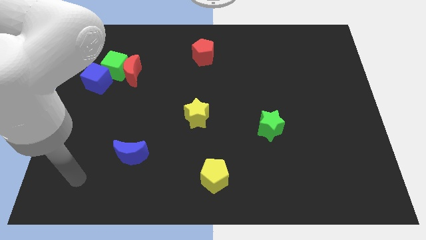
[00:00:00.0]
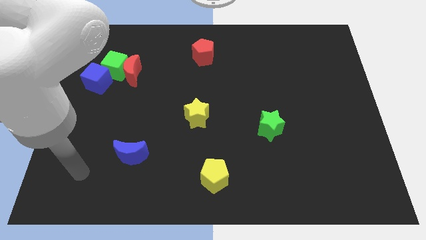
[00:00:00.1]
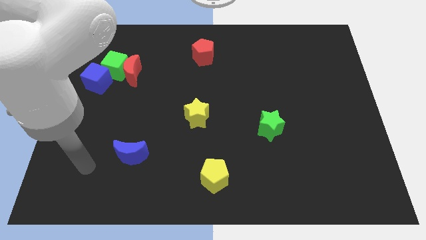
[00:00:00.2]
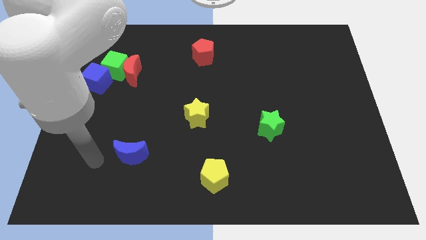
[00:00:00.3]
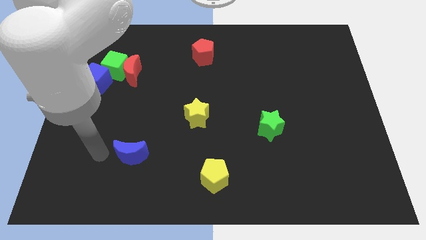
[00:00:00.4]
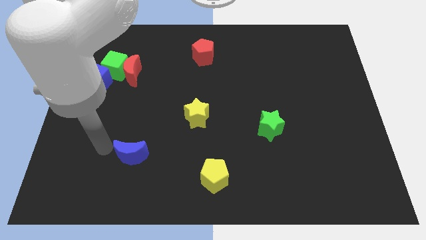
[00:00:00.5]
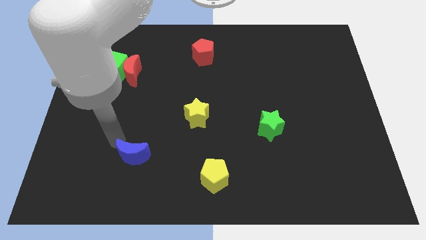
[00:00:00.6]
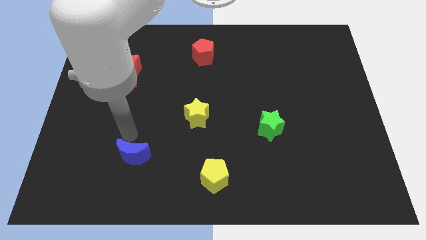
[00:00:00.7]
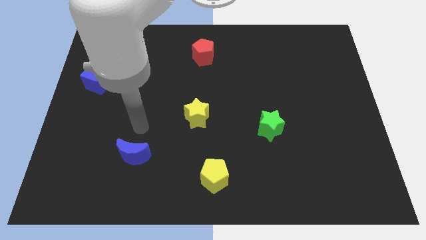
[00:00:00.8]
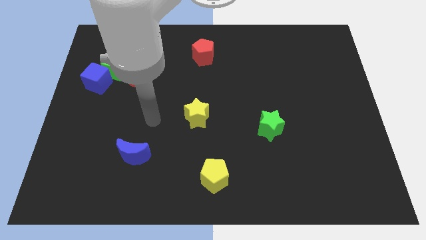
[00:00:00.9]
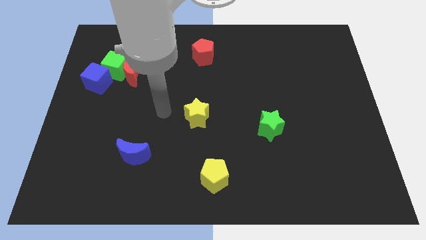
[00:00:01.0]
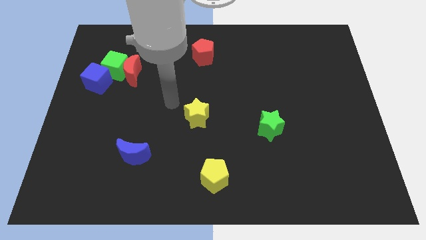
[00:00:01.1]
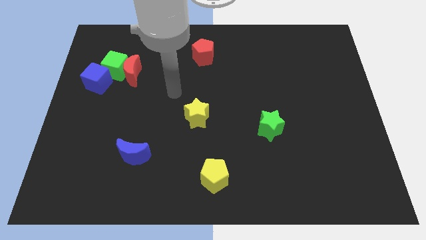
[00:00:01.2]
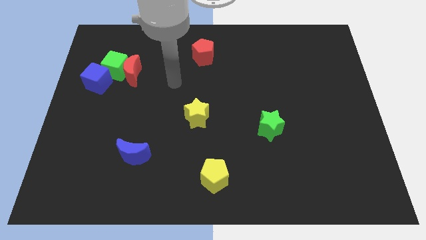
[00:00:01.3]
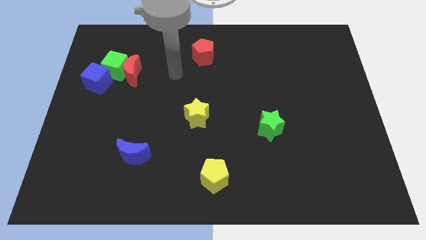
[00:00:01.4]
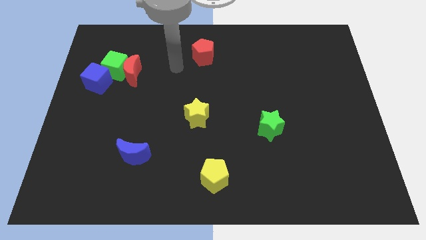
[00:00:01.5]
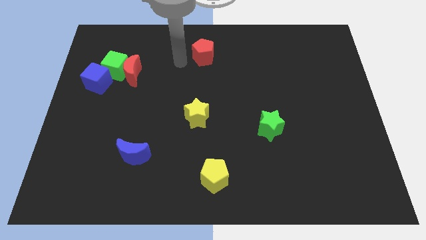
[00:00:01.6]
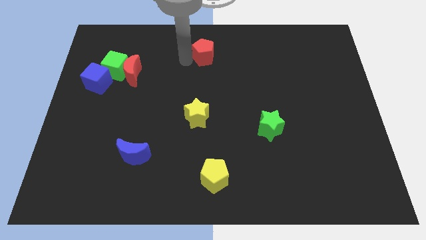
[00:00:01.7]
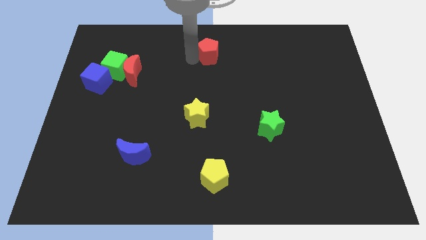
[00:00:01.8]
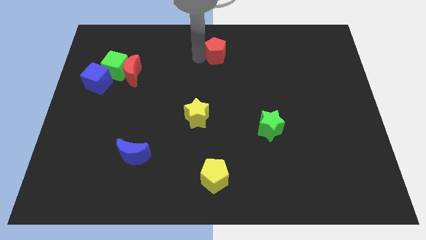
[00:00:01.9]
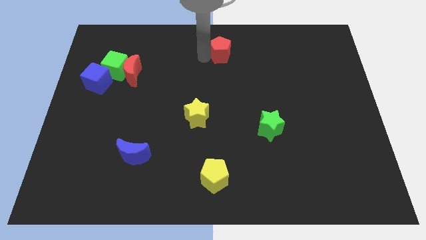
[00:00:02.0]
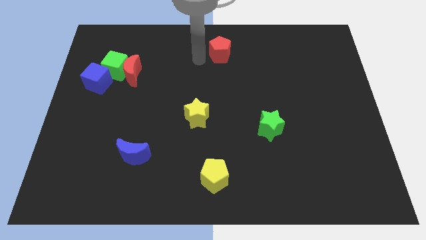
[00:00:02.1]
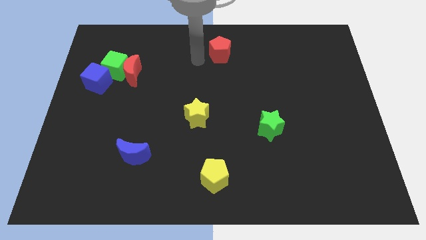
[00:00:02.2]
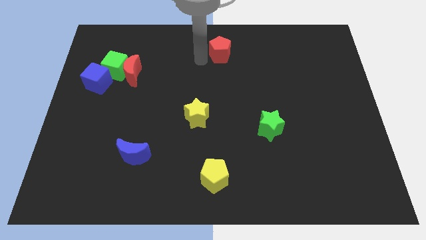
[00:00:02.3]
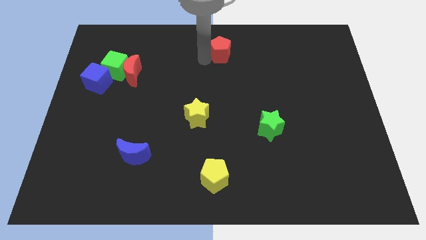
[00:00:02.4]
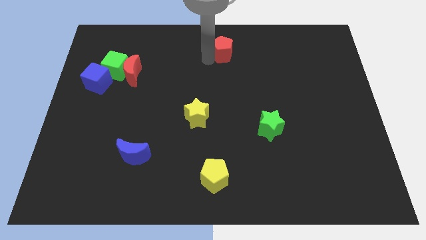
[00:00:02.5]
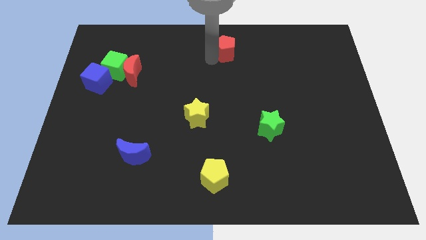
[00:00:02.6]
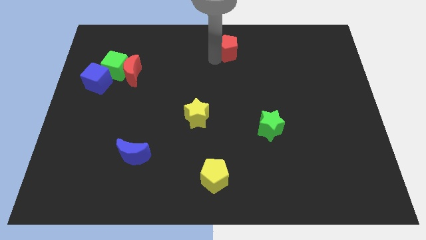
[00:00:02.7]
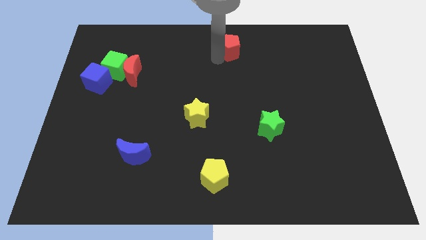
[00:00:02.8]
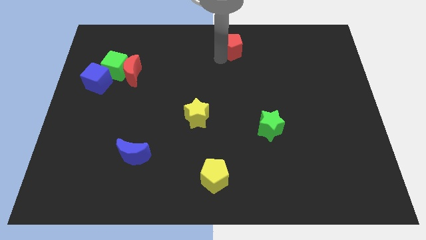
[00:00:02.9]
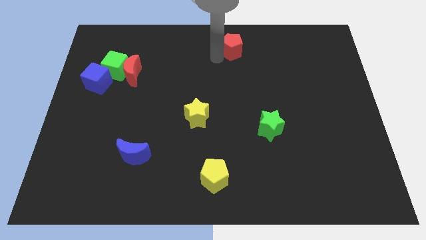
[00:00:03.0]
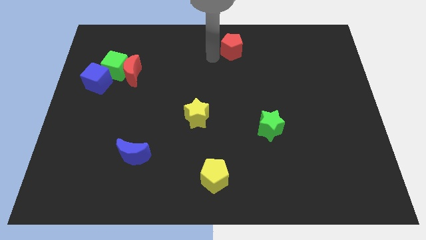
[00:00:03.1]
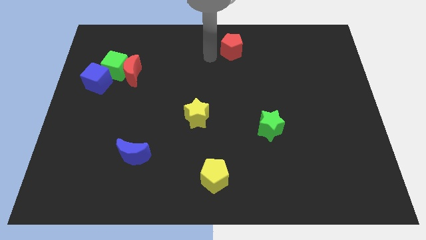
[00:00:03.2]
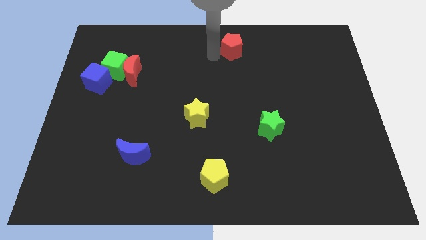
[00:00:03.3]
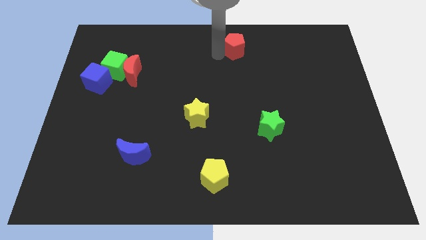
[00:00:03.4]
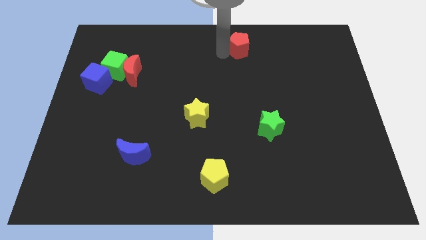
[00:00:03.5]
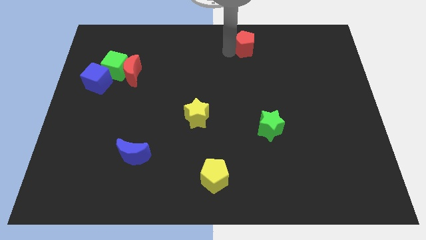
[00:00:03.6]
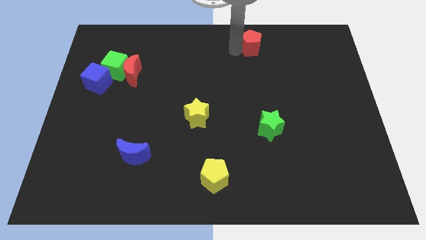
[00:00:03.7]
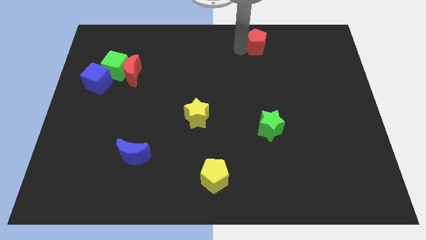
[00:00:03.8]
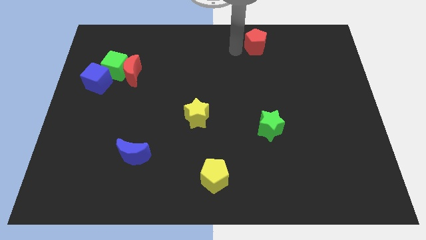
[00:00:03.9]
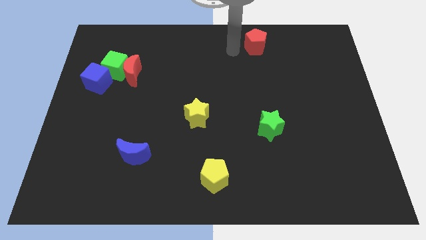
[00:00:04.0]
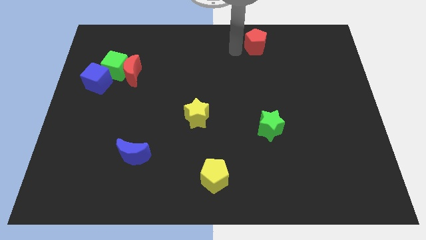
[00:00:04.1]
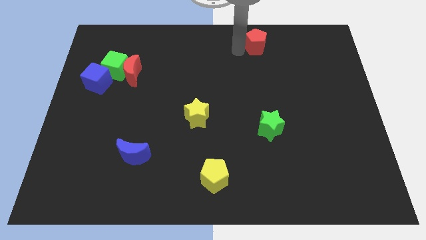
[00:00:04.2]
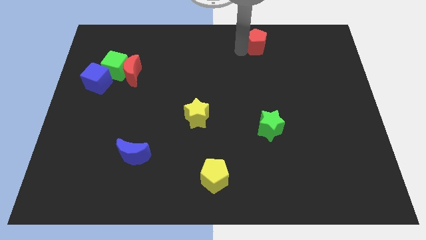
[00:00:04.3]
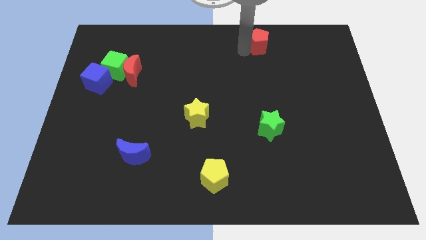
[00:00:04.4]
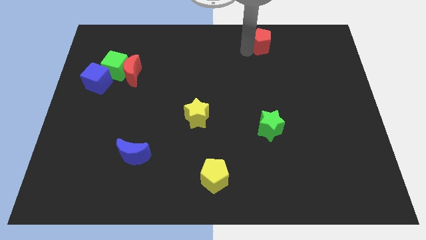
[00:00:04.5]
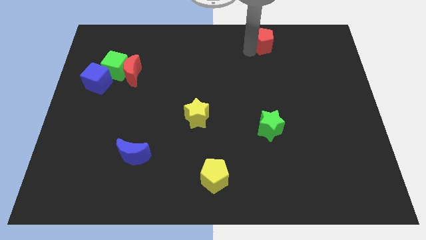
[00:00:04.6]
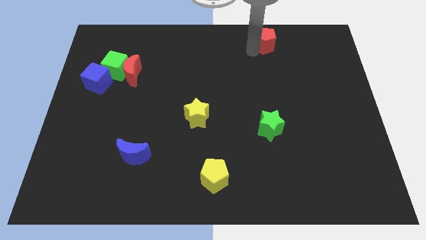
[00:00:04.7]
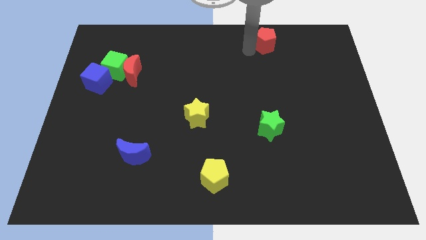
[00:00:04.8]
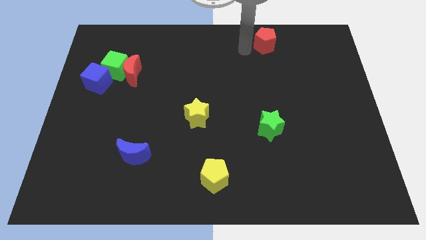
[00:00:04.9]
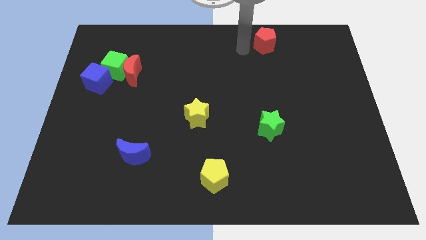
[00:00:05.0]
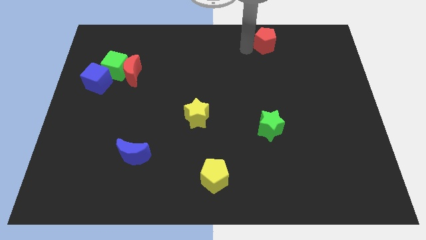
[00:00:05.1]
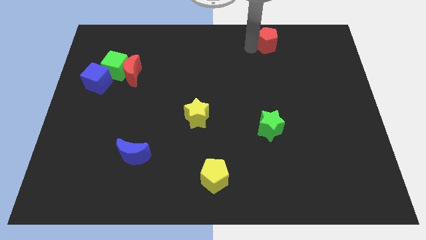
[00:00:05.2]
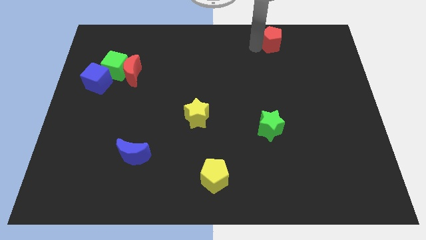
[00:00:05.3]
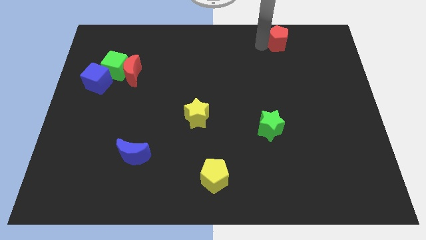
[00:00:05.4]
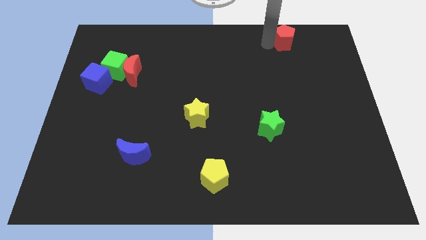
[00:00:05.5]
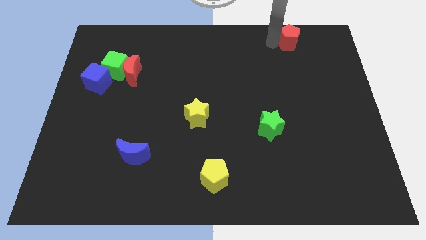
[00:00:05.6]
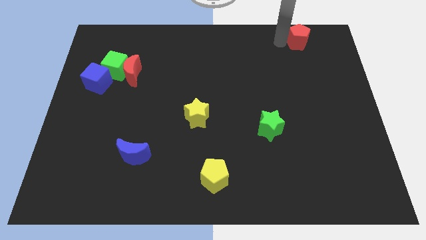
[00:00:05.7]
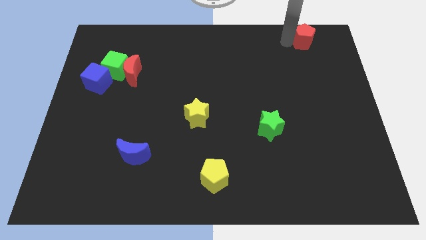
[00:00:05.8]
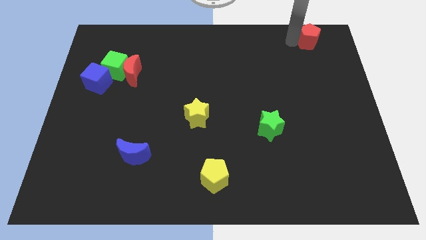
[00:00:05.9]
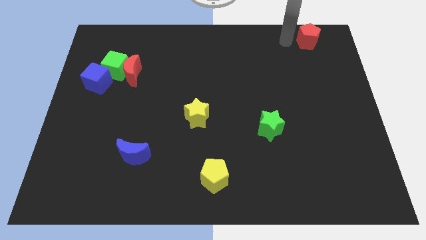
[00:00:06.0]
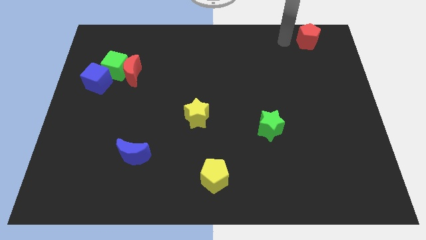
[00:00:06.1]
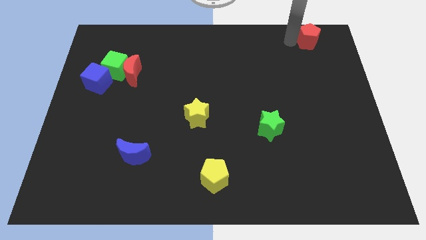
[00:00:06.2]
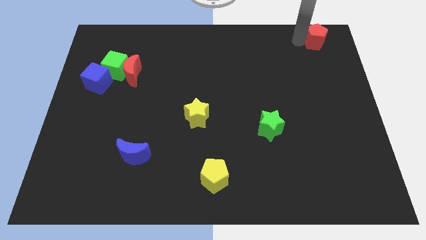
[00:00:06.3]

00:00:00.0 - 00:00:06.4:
slide the red pentagon to the upper right corner
